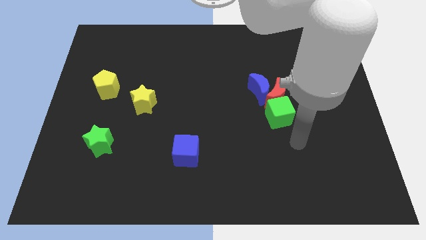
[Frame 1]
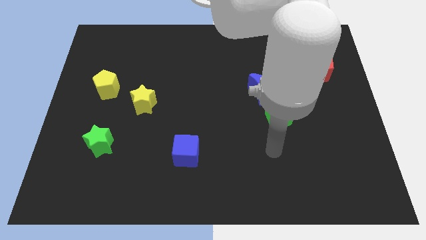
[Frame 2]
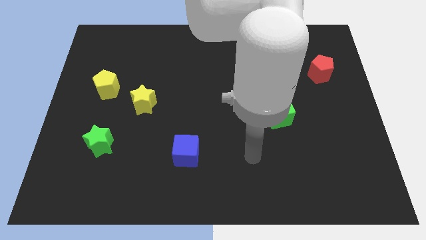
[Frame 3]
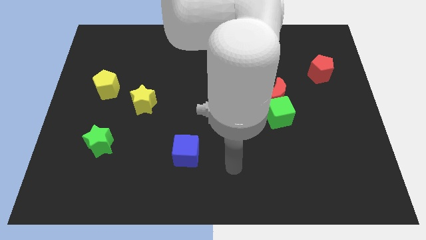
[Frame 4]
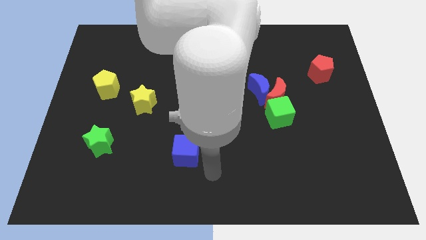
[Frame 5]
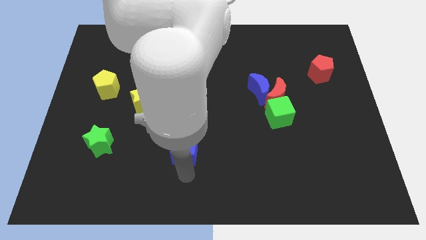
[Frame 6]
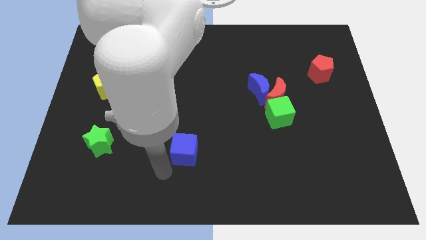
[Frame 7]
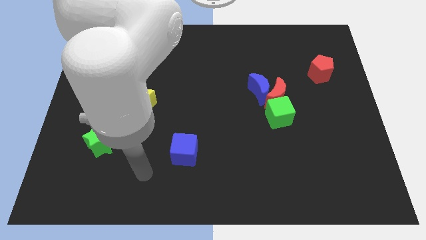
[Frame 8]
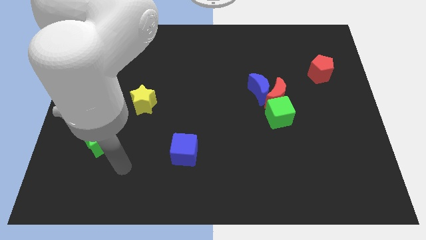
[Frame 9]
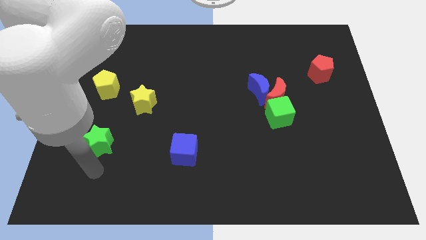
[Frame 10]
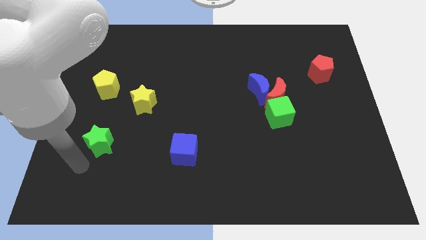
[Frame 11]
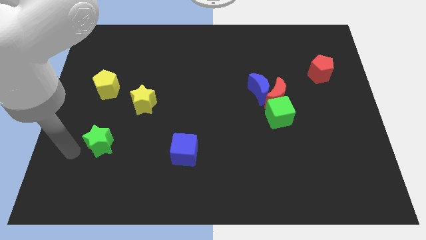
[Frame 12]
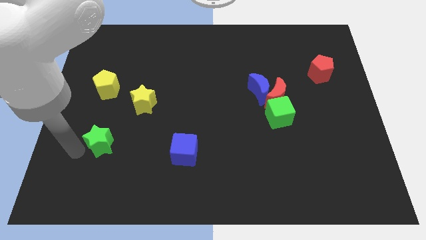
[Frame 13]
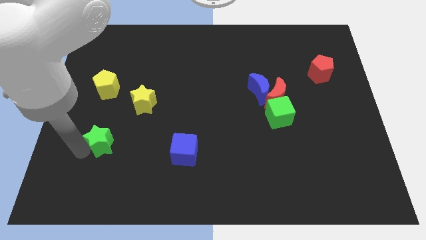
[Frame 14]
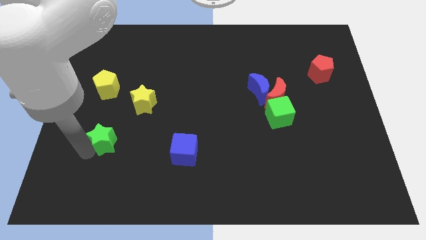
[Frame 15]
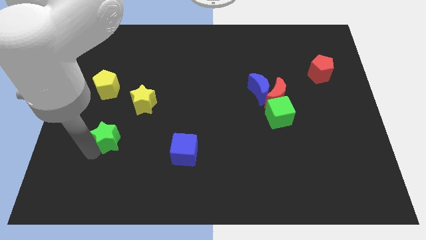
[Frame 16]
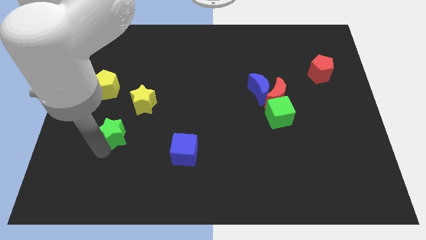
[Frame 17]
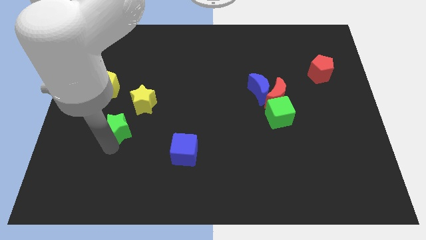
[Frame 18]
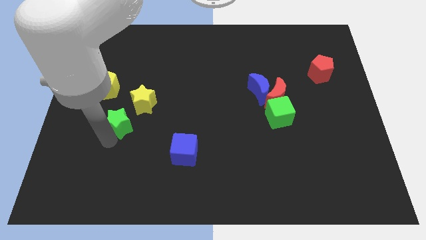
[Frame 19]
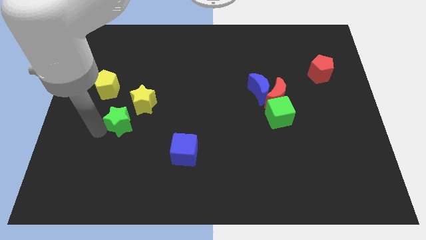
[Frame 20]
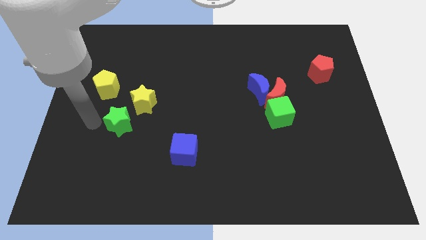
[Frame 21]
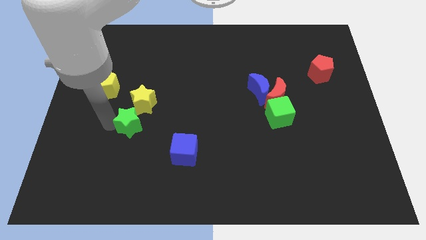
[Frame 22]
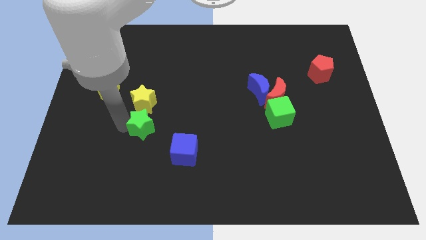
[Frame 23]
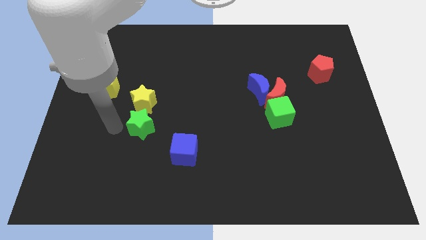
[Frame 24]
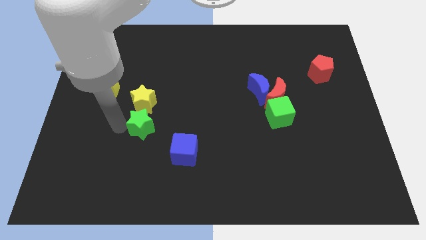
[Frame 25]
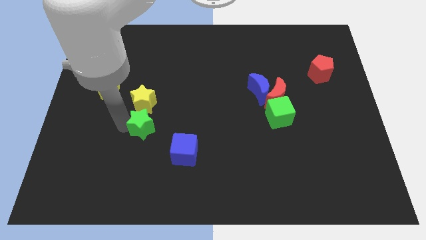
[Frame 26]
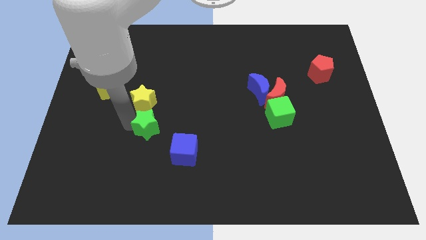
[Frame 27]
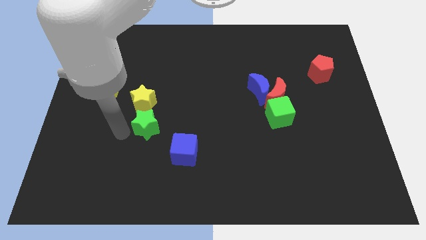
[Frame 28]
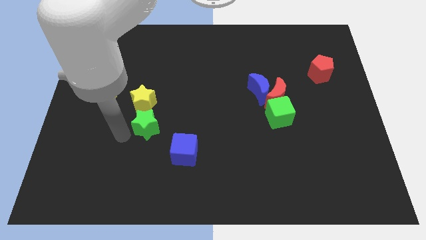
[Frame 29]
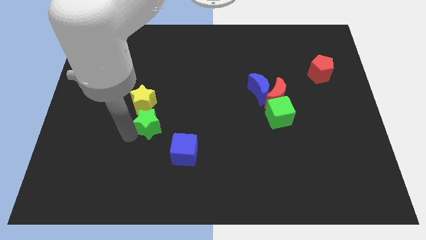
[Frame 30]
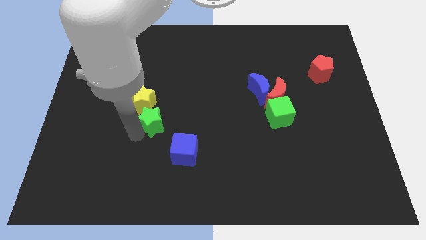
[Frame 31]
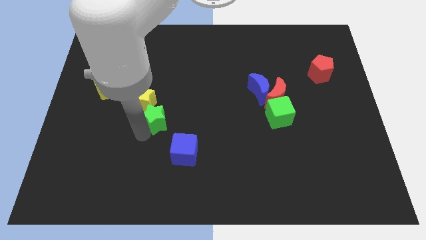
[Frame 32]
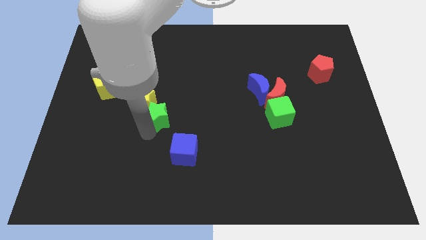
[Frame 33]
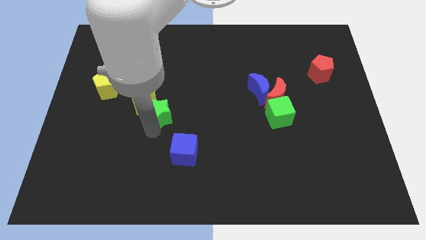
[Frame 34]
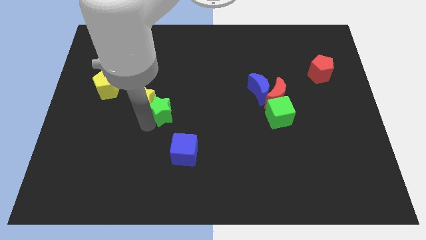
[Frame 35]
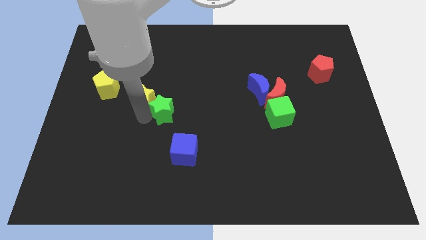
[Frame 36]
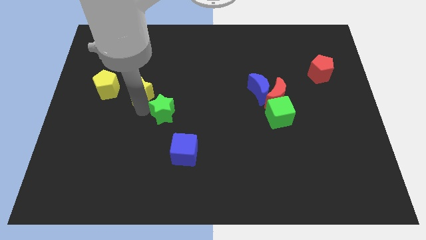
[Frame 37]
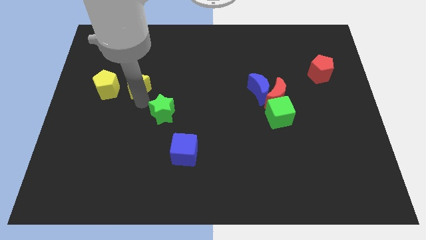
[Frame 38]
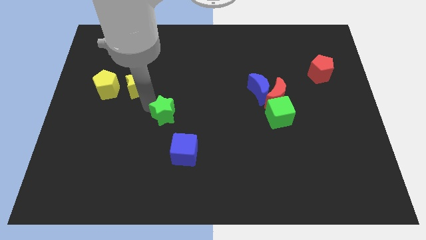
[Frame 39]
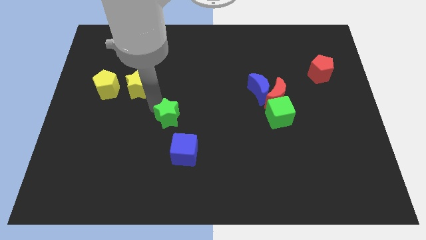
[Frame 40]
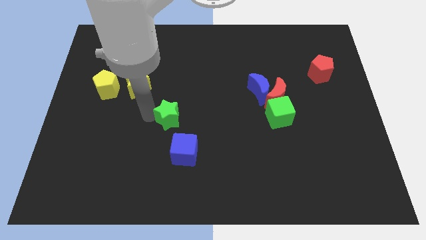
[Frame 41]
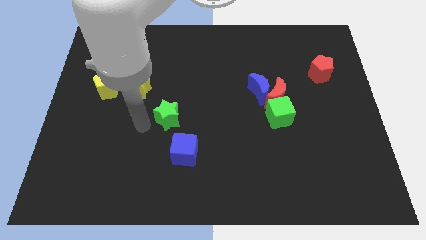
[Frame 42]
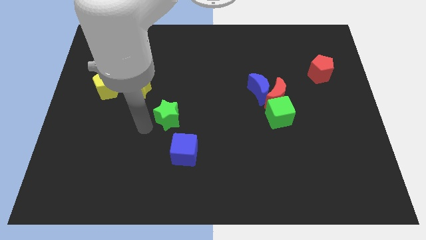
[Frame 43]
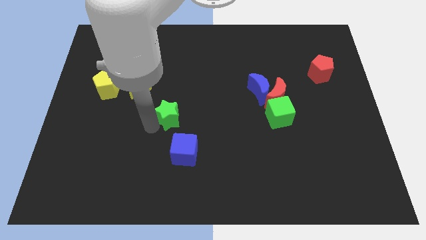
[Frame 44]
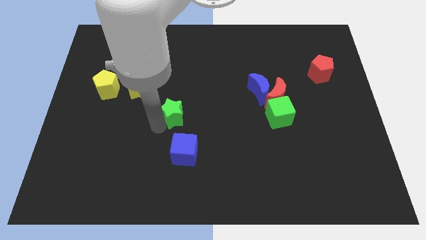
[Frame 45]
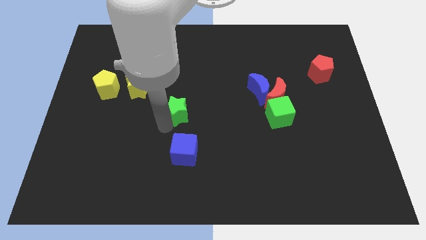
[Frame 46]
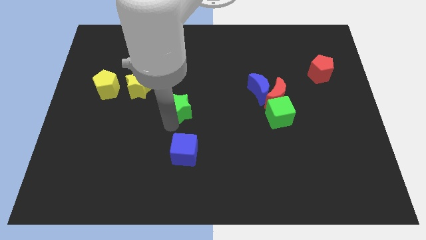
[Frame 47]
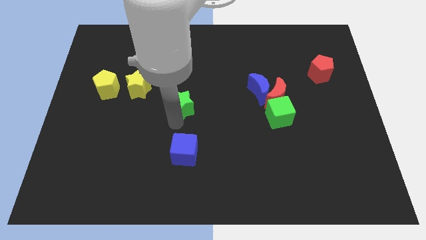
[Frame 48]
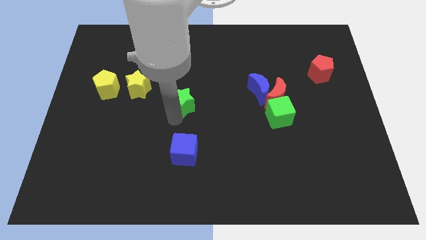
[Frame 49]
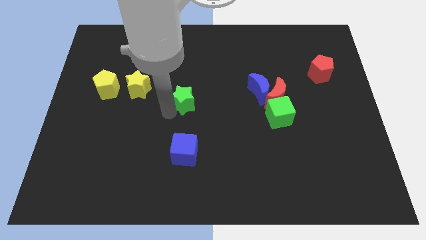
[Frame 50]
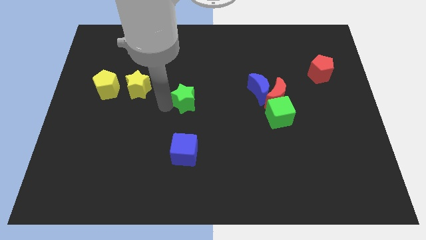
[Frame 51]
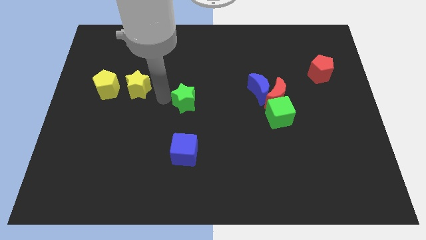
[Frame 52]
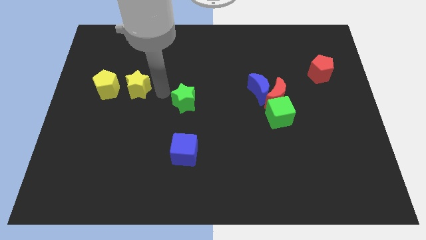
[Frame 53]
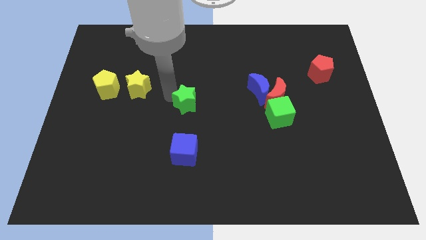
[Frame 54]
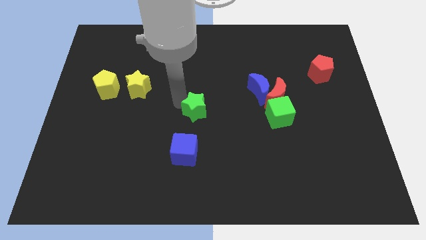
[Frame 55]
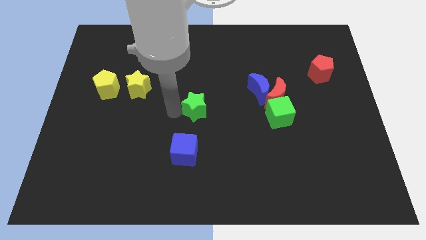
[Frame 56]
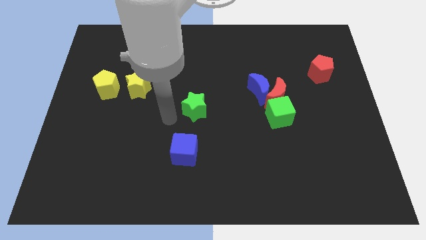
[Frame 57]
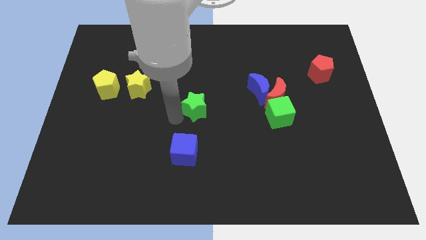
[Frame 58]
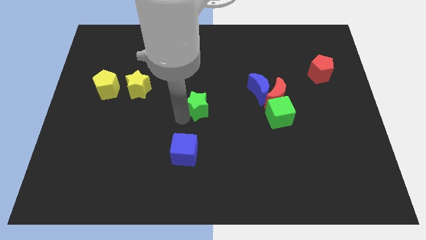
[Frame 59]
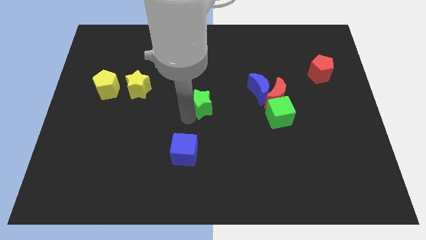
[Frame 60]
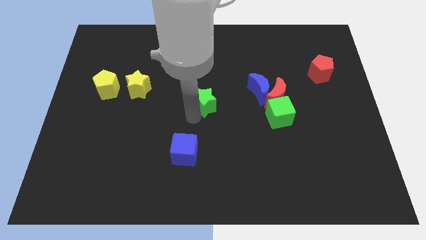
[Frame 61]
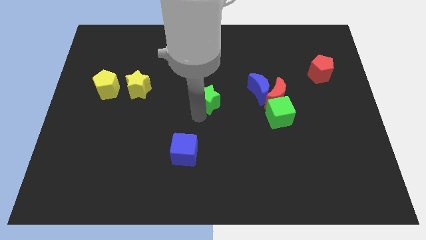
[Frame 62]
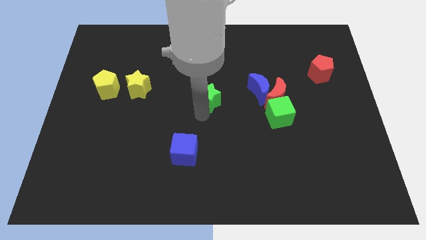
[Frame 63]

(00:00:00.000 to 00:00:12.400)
put the green star to the left side of the red moon

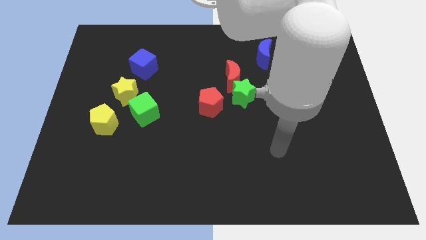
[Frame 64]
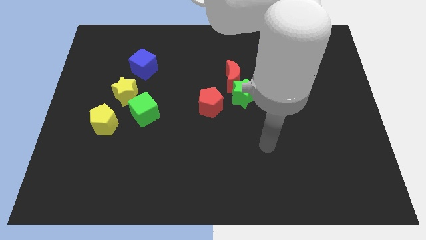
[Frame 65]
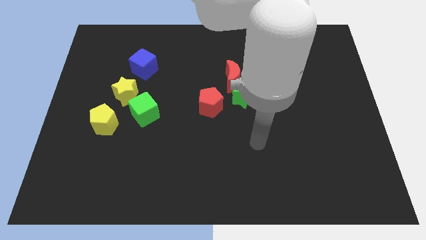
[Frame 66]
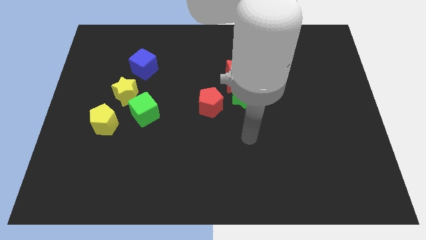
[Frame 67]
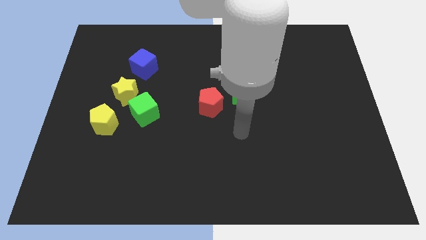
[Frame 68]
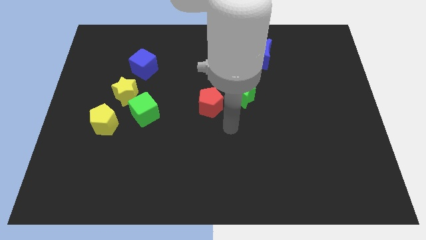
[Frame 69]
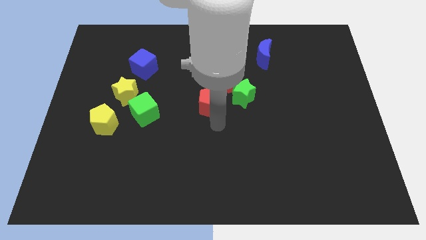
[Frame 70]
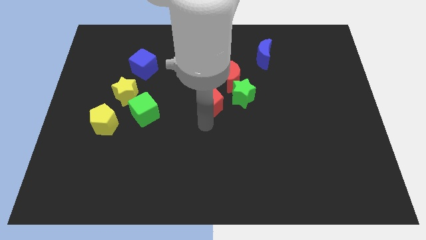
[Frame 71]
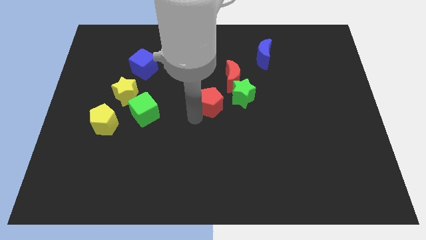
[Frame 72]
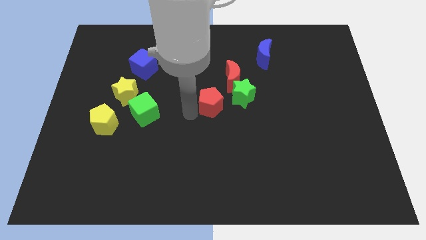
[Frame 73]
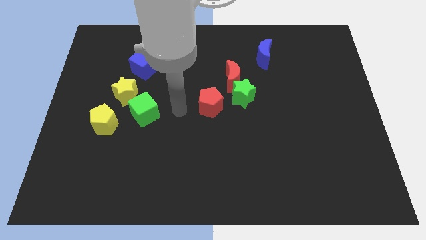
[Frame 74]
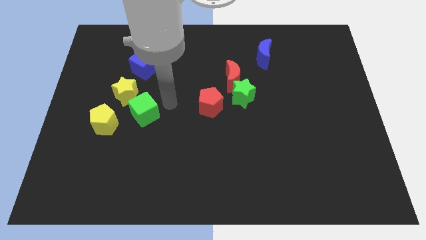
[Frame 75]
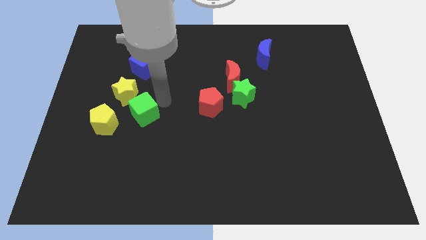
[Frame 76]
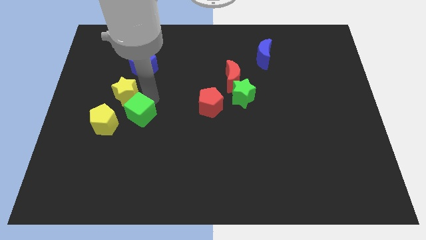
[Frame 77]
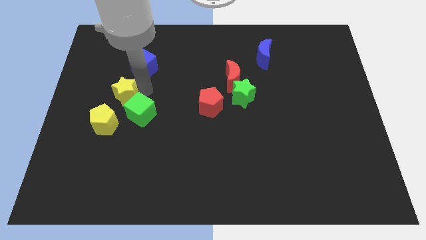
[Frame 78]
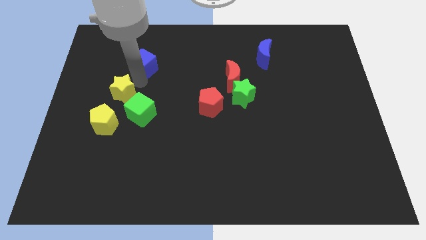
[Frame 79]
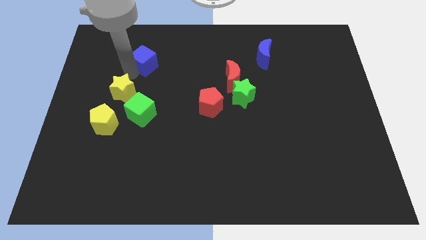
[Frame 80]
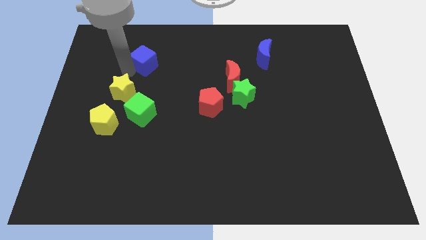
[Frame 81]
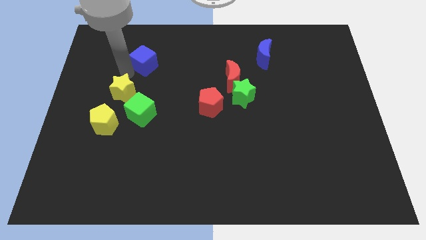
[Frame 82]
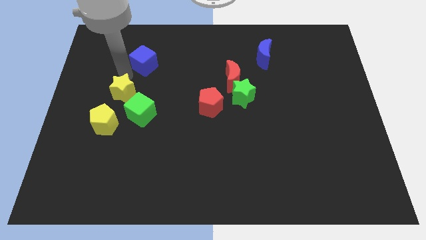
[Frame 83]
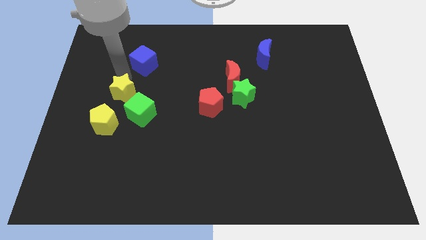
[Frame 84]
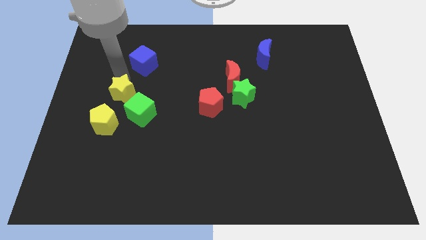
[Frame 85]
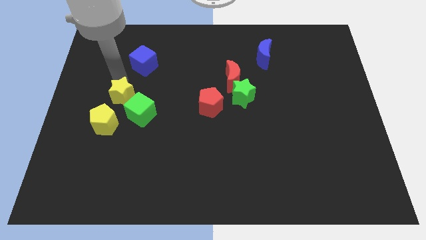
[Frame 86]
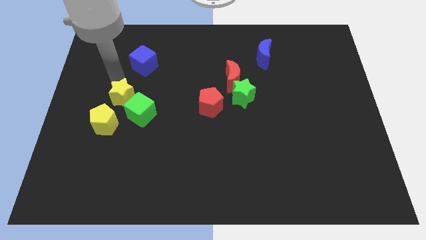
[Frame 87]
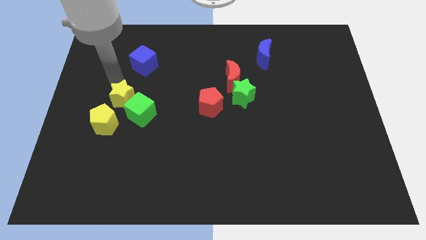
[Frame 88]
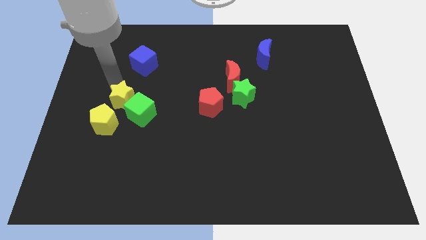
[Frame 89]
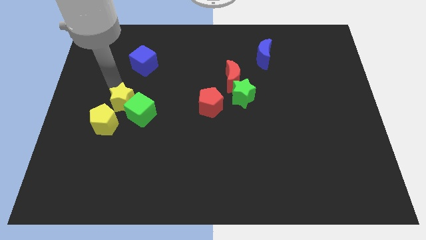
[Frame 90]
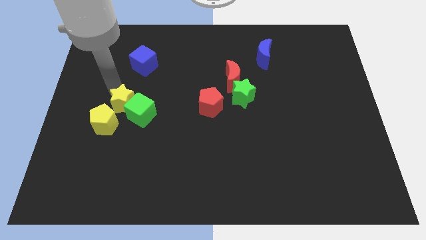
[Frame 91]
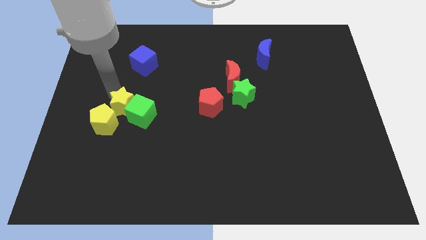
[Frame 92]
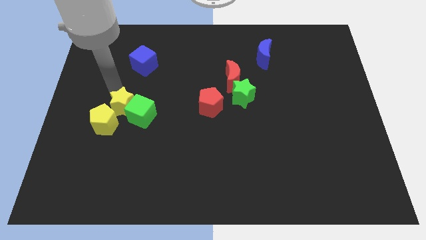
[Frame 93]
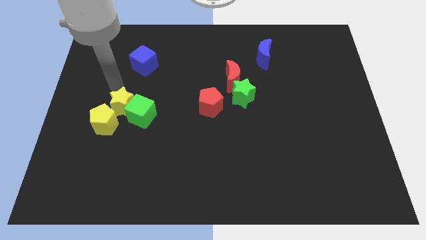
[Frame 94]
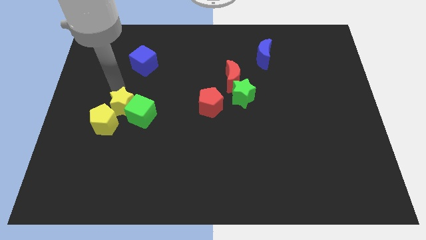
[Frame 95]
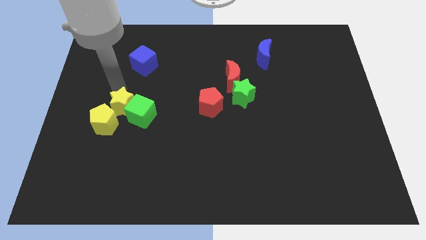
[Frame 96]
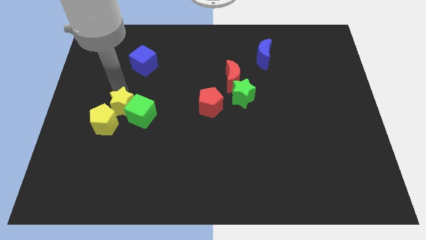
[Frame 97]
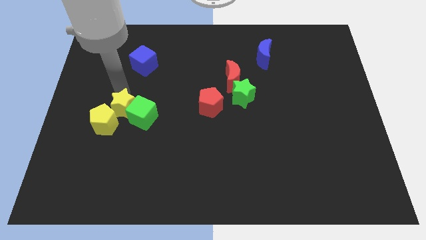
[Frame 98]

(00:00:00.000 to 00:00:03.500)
push the yellow star to the right of the yellow pentagon
